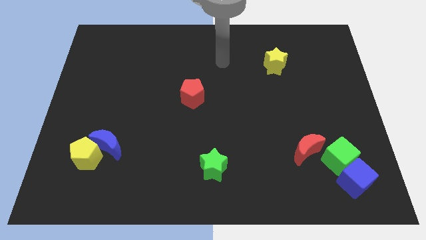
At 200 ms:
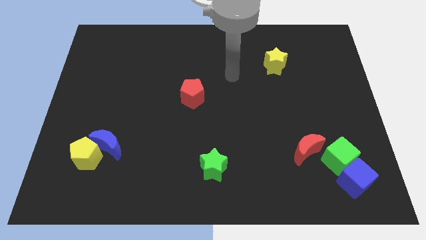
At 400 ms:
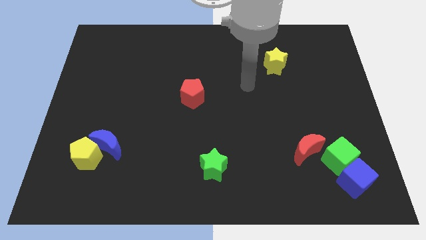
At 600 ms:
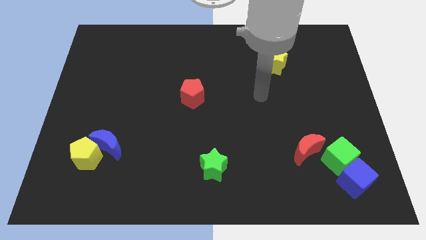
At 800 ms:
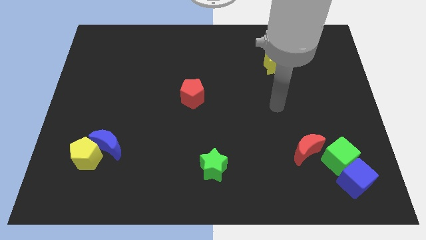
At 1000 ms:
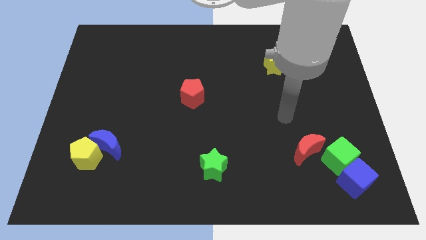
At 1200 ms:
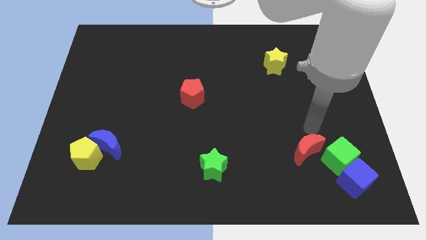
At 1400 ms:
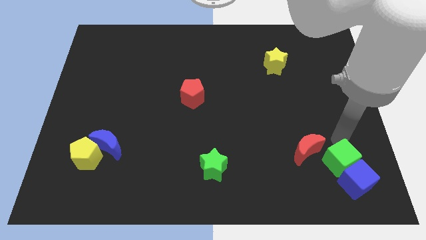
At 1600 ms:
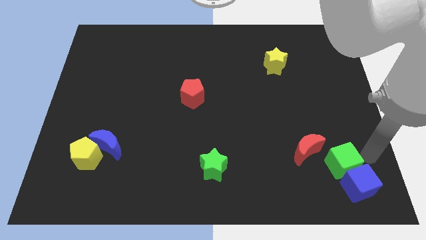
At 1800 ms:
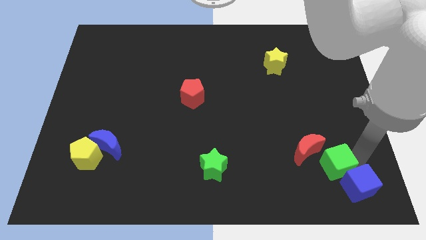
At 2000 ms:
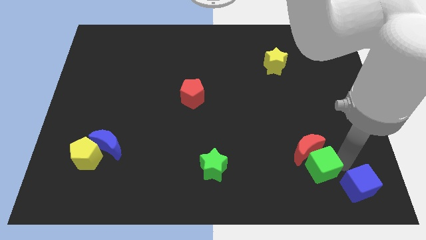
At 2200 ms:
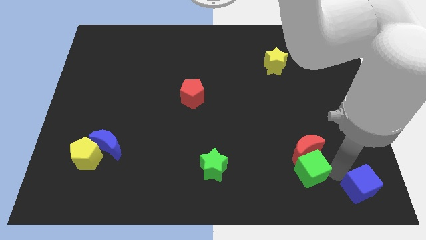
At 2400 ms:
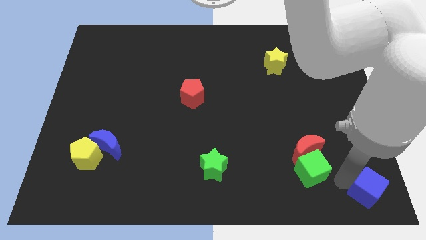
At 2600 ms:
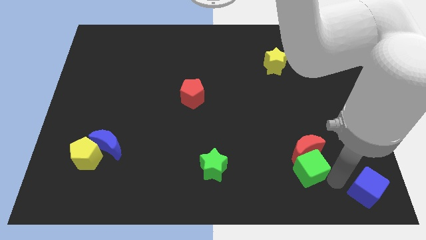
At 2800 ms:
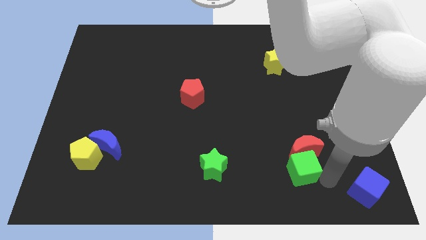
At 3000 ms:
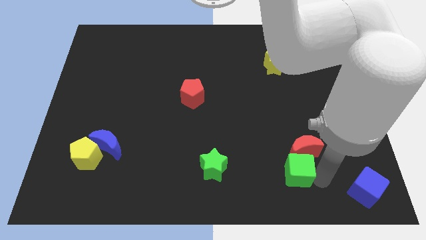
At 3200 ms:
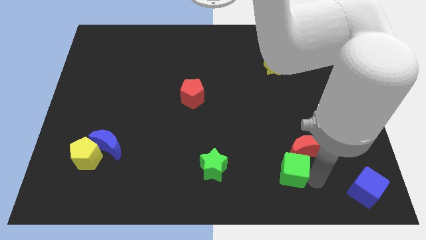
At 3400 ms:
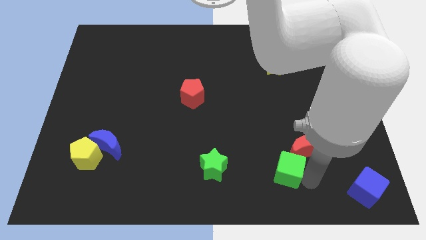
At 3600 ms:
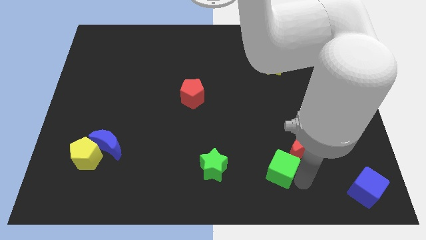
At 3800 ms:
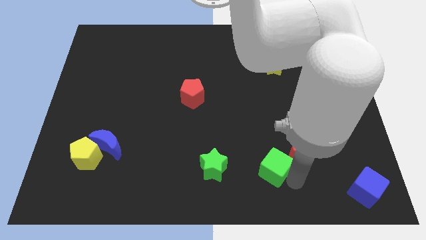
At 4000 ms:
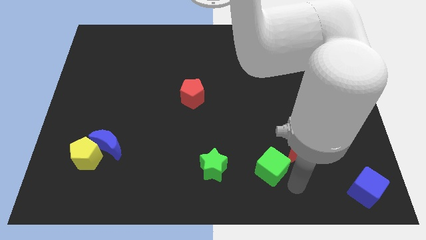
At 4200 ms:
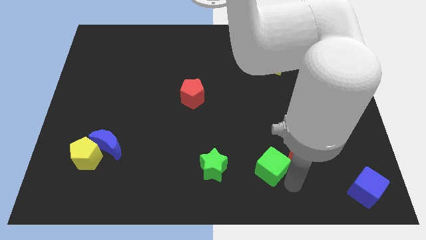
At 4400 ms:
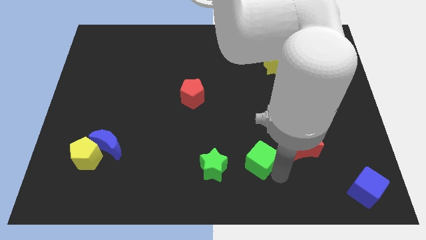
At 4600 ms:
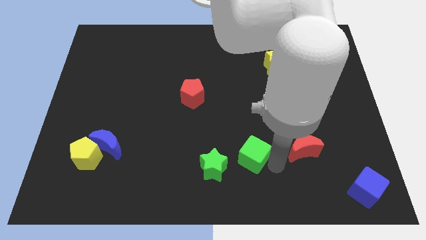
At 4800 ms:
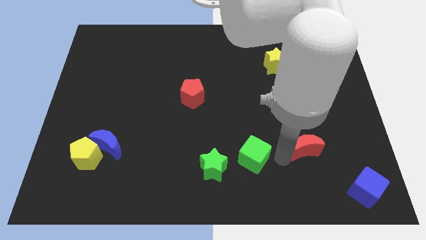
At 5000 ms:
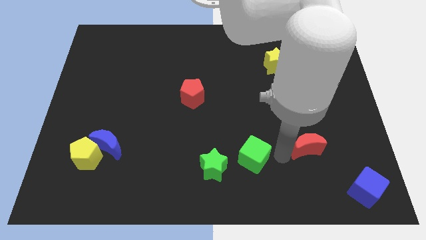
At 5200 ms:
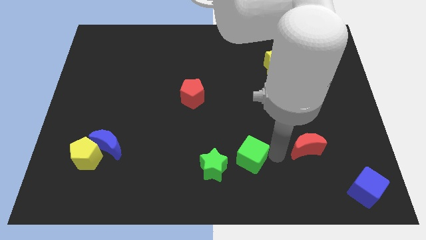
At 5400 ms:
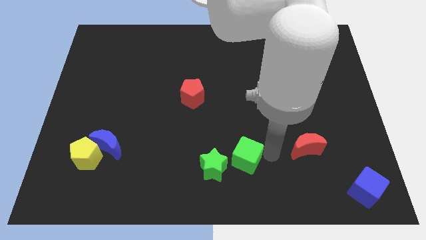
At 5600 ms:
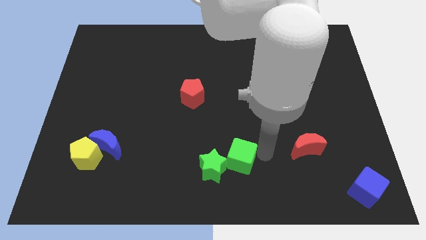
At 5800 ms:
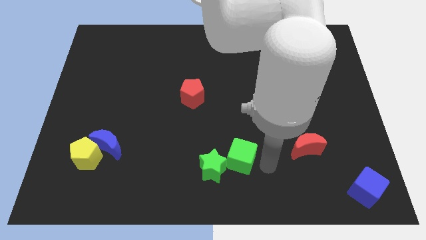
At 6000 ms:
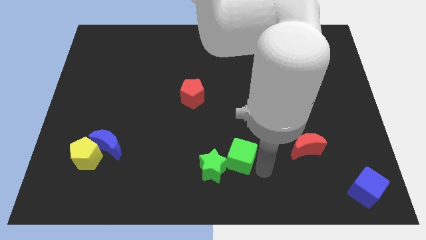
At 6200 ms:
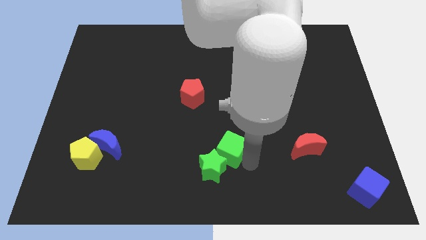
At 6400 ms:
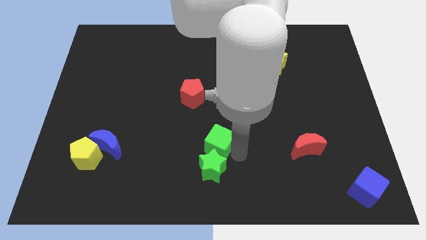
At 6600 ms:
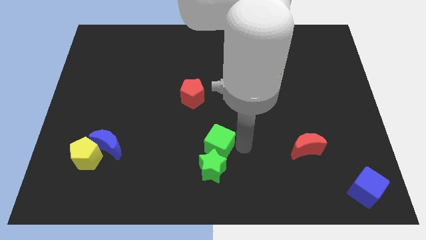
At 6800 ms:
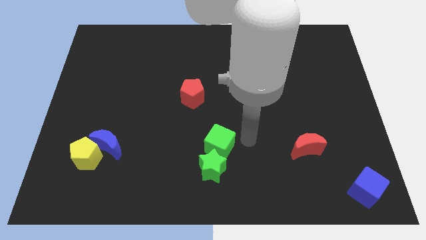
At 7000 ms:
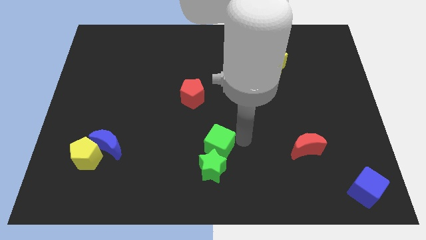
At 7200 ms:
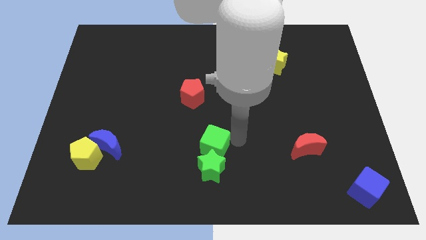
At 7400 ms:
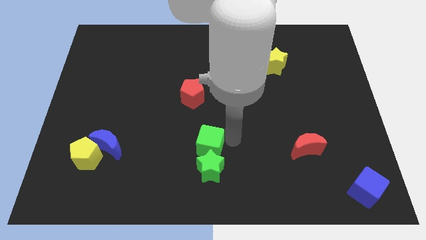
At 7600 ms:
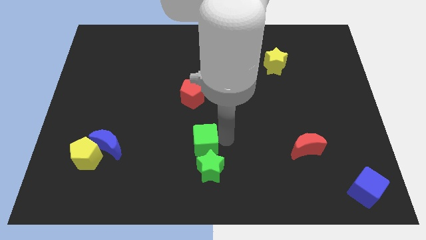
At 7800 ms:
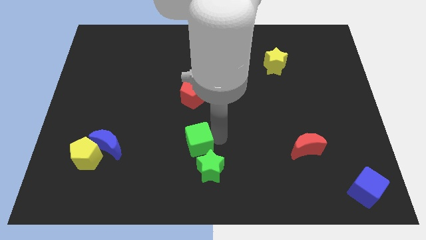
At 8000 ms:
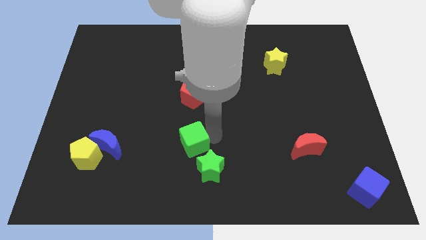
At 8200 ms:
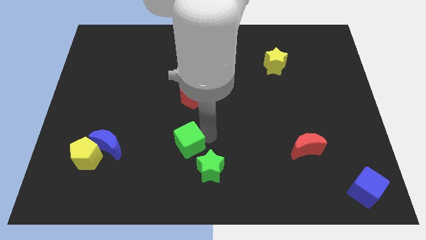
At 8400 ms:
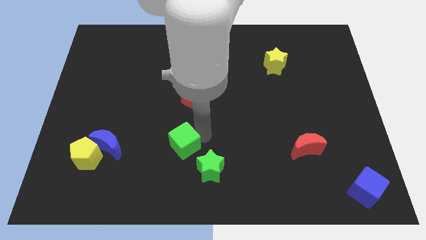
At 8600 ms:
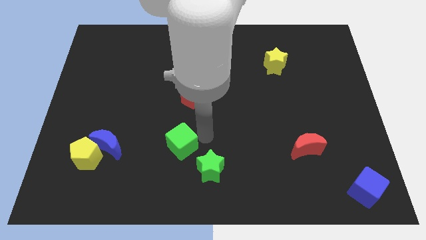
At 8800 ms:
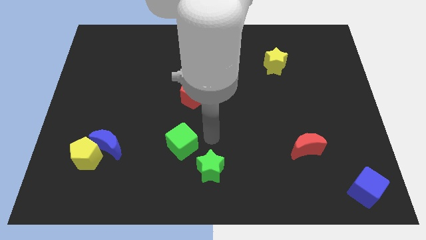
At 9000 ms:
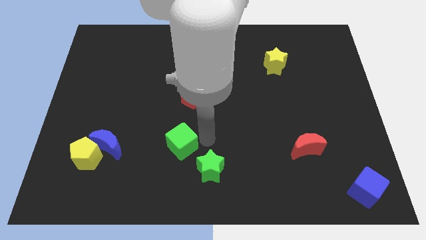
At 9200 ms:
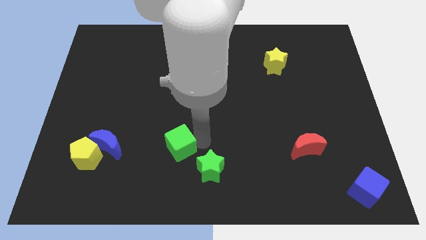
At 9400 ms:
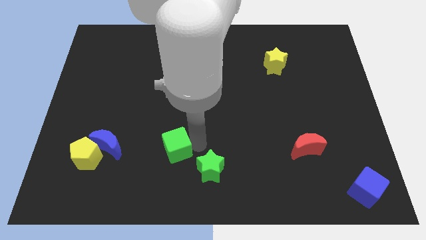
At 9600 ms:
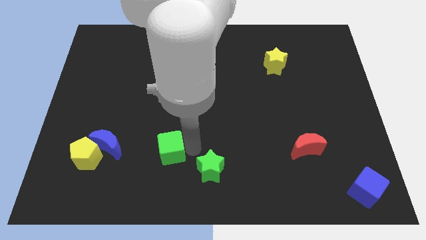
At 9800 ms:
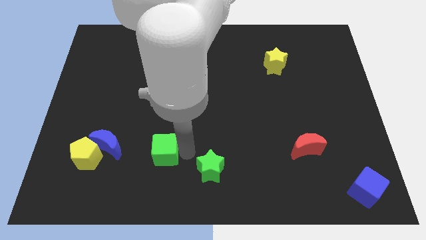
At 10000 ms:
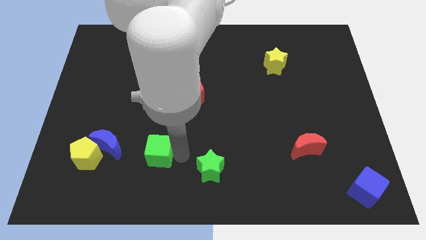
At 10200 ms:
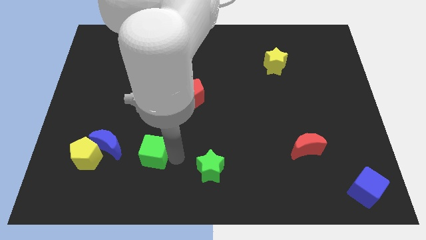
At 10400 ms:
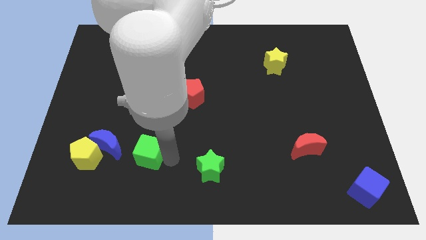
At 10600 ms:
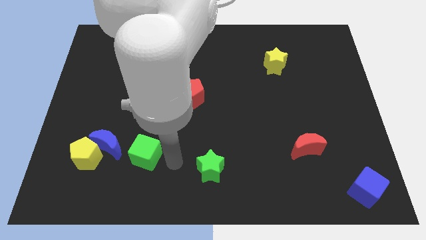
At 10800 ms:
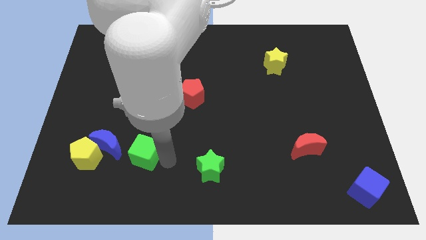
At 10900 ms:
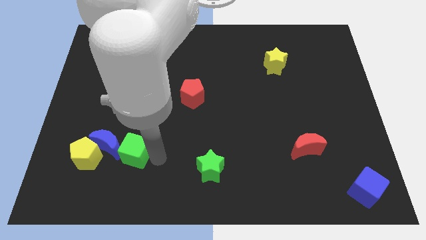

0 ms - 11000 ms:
push the green cube next to the blue moon

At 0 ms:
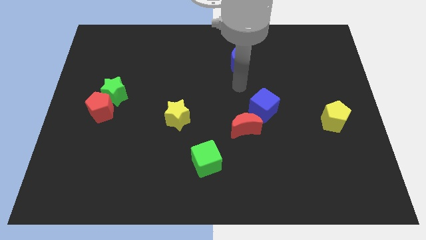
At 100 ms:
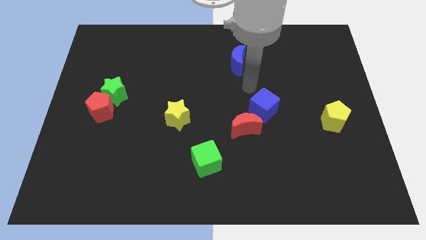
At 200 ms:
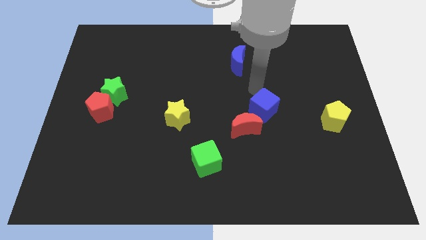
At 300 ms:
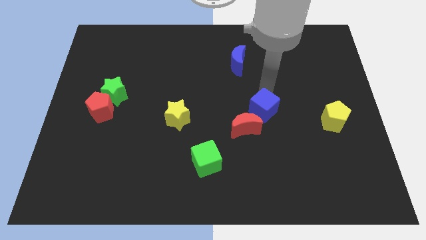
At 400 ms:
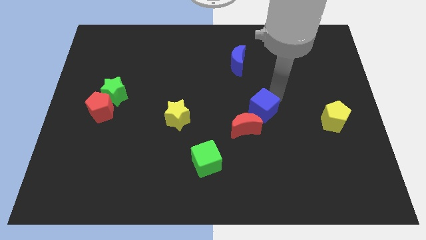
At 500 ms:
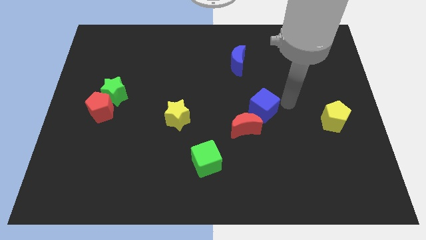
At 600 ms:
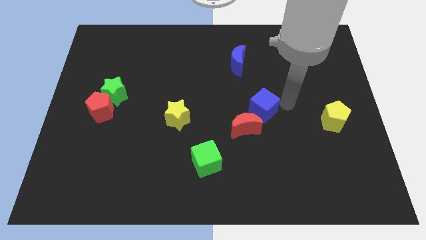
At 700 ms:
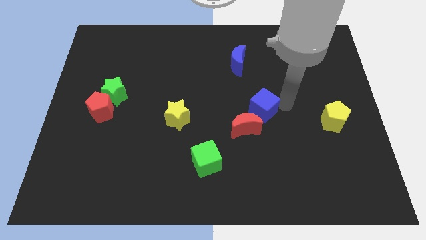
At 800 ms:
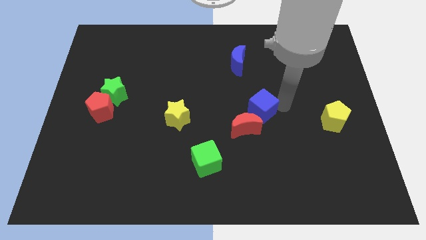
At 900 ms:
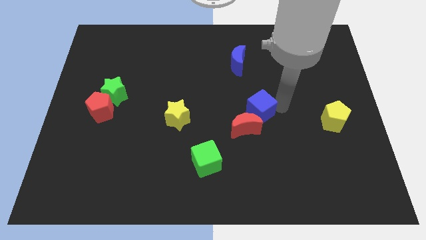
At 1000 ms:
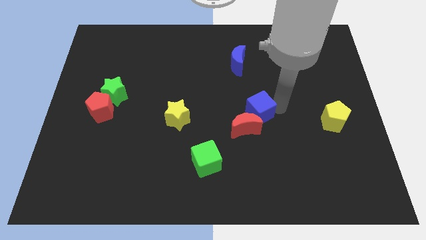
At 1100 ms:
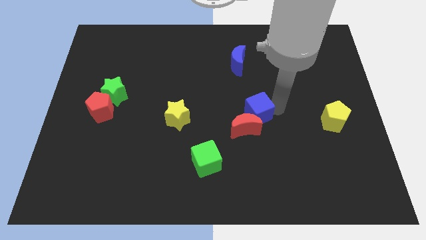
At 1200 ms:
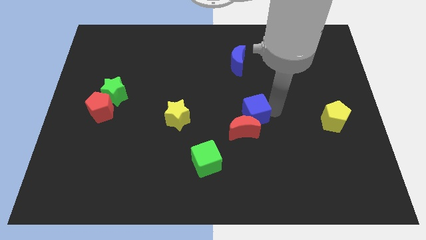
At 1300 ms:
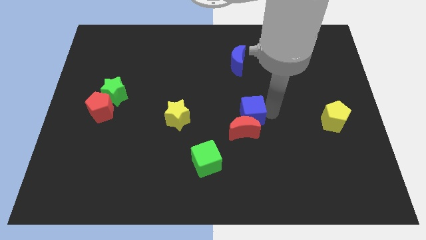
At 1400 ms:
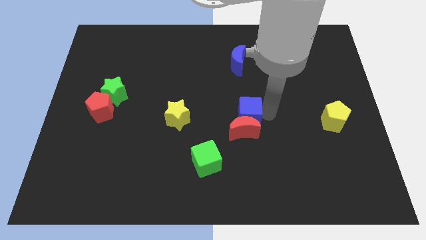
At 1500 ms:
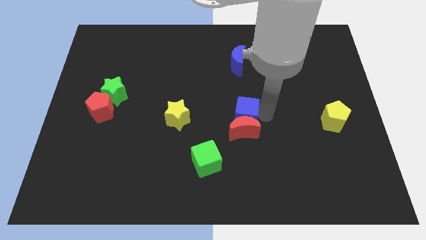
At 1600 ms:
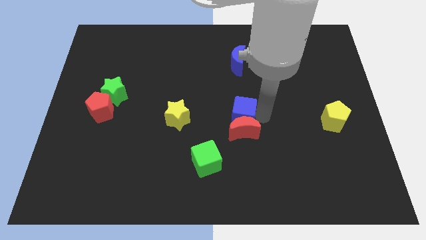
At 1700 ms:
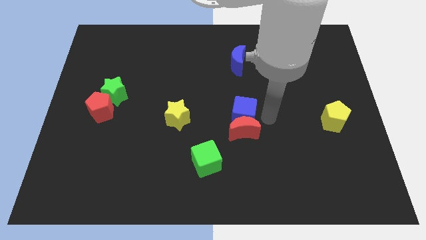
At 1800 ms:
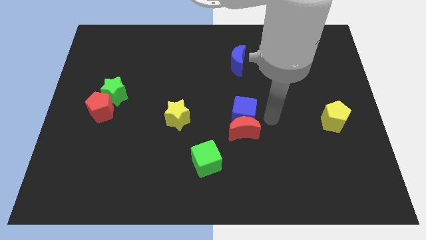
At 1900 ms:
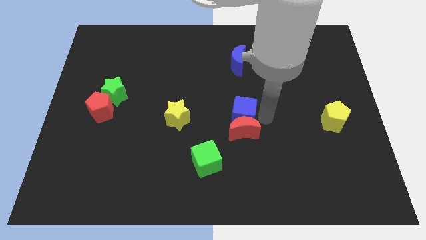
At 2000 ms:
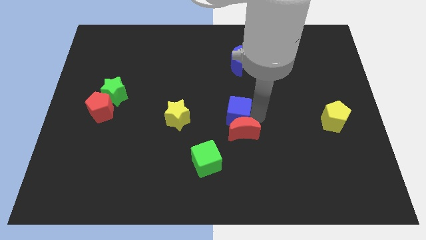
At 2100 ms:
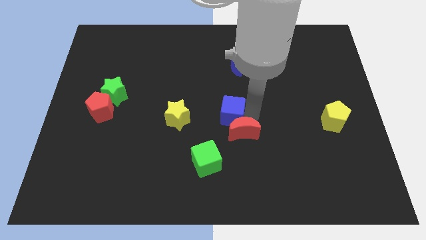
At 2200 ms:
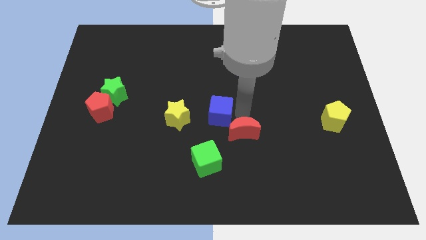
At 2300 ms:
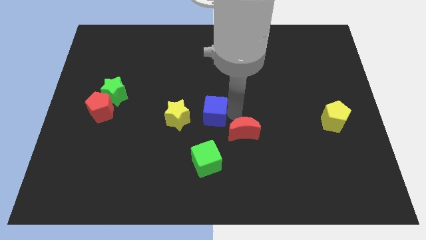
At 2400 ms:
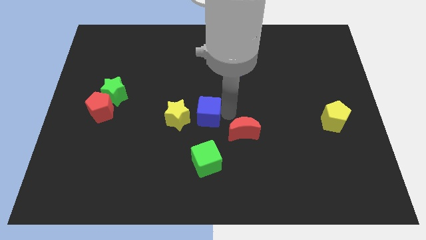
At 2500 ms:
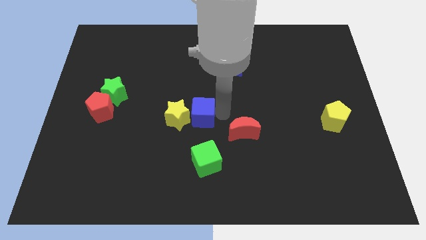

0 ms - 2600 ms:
move the blue cube close to the yellow star
